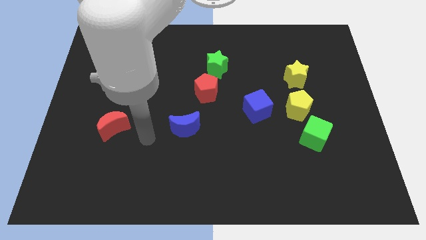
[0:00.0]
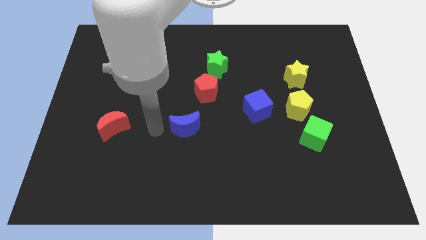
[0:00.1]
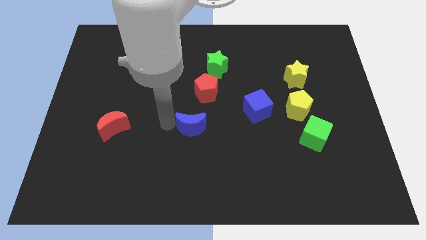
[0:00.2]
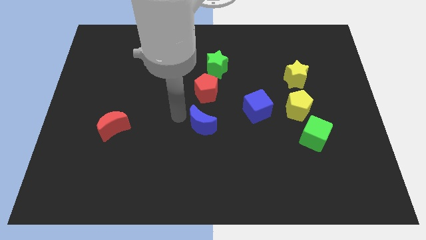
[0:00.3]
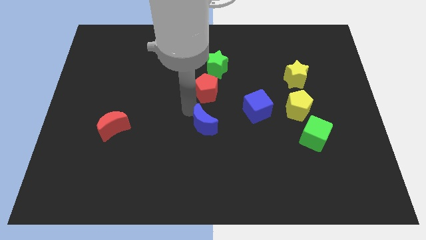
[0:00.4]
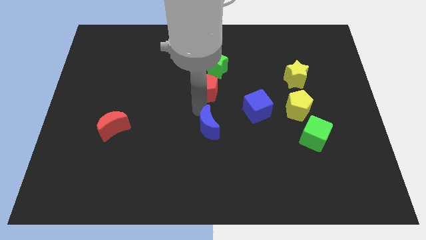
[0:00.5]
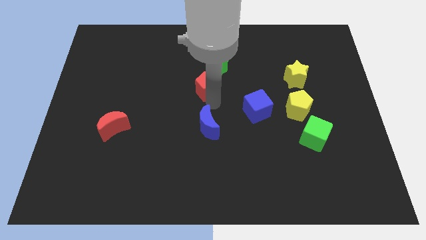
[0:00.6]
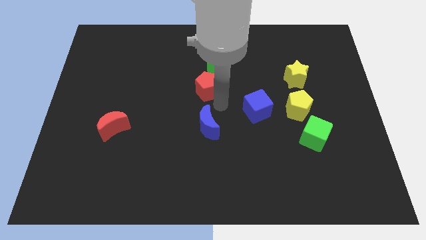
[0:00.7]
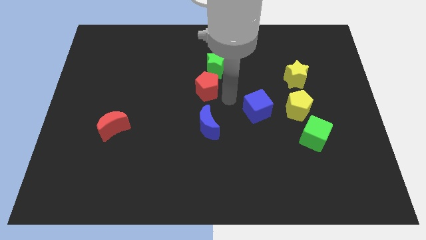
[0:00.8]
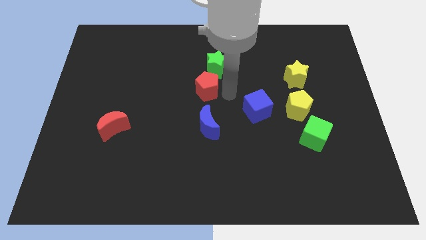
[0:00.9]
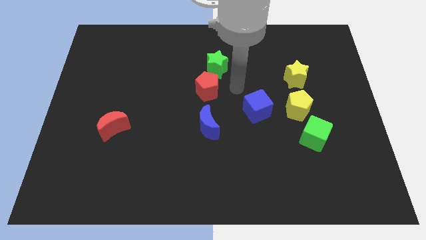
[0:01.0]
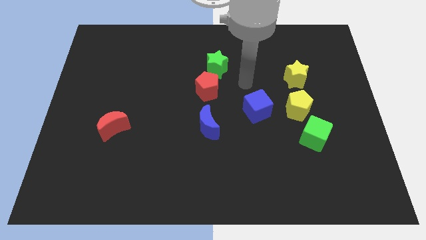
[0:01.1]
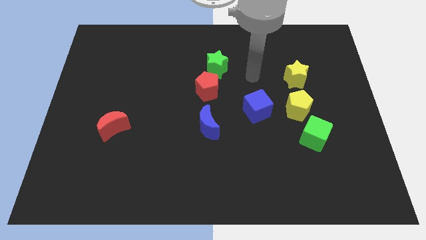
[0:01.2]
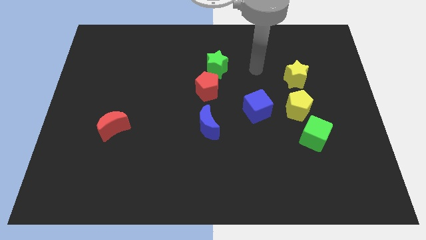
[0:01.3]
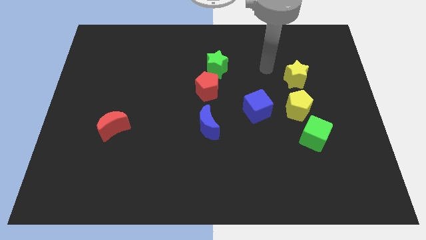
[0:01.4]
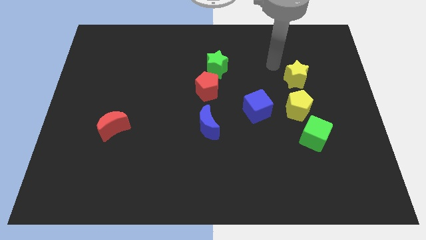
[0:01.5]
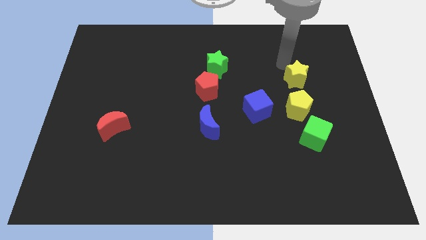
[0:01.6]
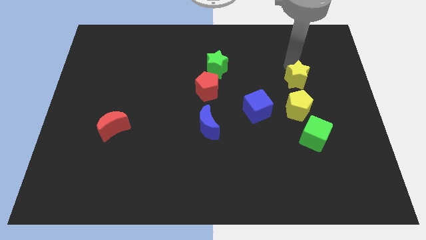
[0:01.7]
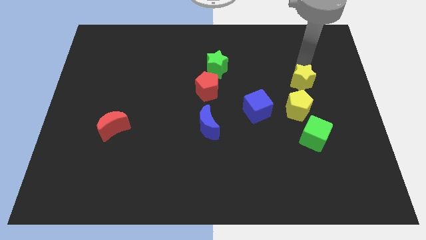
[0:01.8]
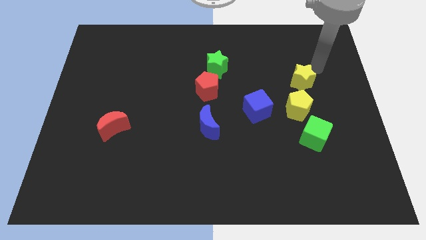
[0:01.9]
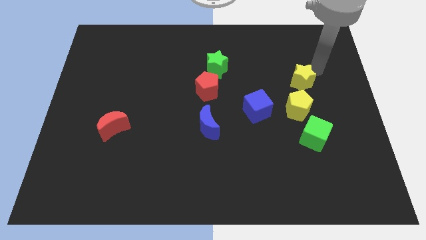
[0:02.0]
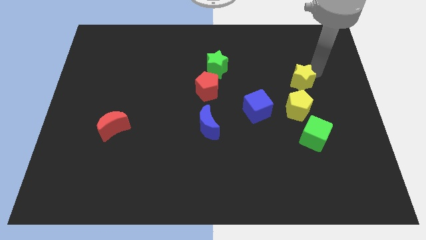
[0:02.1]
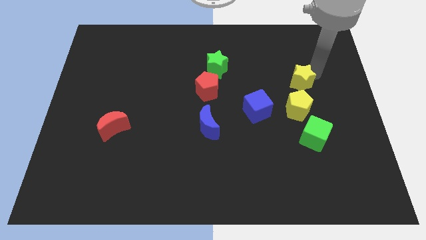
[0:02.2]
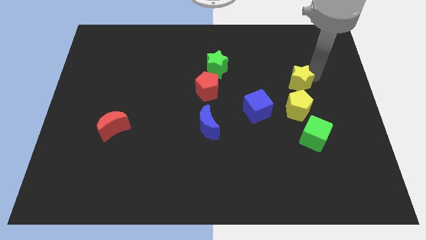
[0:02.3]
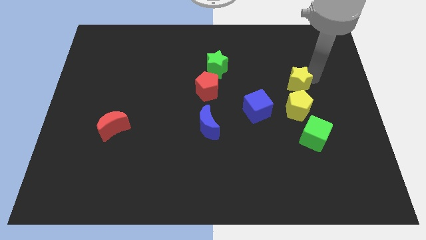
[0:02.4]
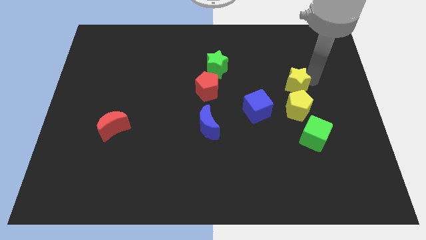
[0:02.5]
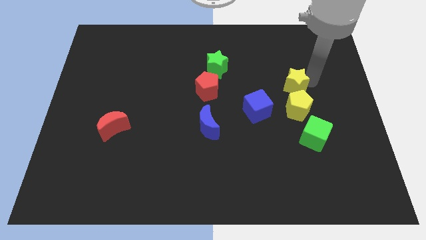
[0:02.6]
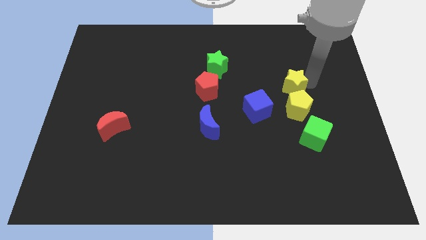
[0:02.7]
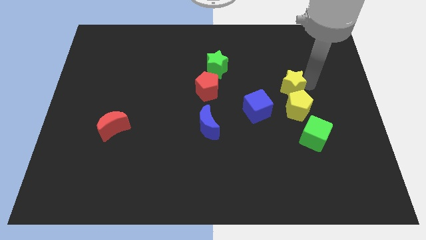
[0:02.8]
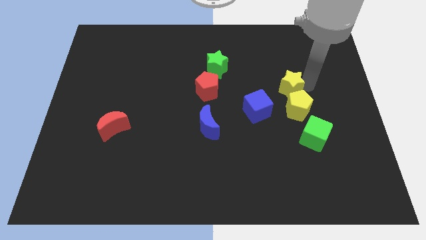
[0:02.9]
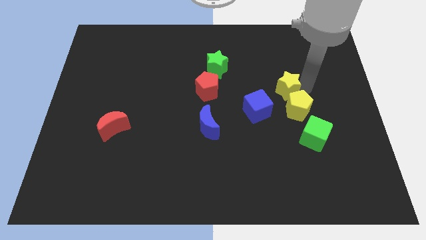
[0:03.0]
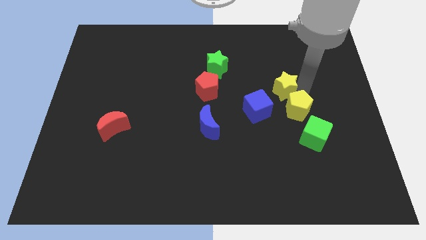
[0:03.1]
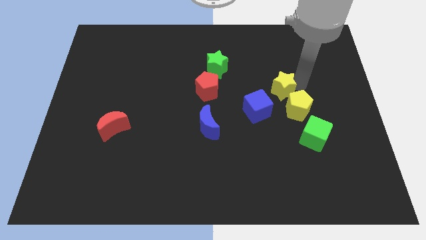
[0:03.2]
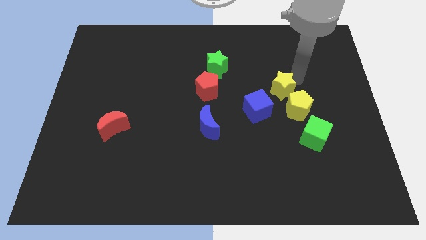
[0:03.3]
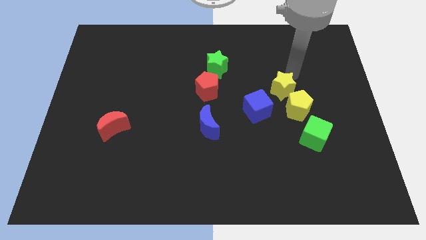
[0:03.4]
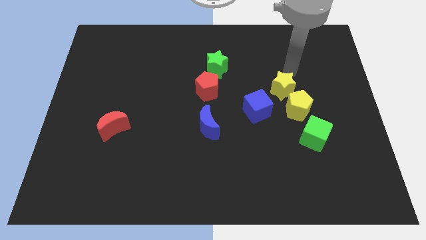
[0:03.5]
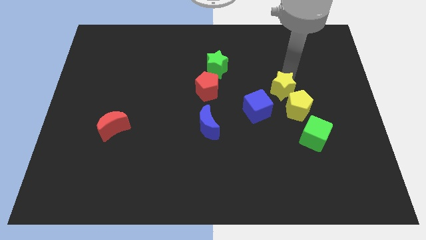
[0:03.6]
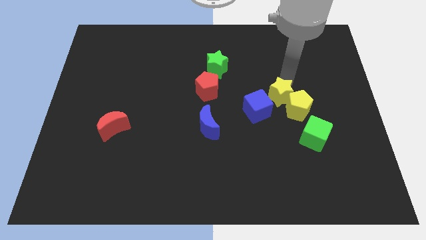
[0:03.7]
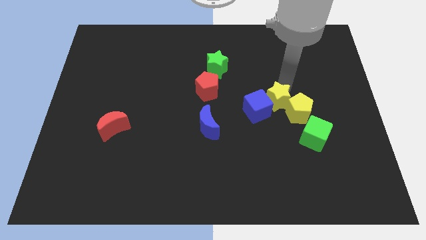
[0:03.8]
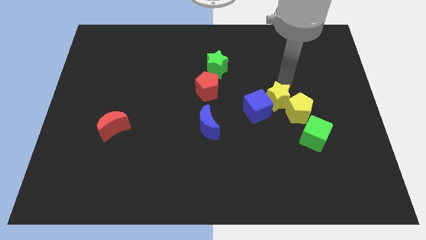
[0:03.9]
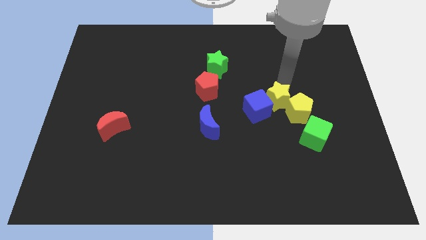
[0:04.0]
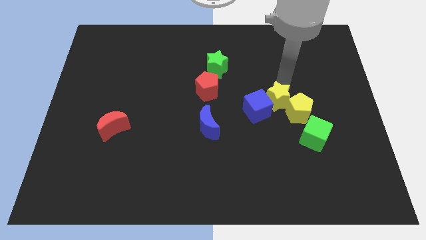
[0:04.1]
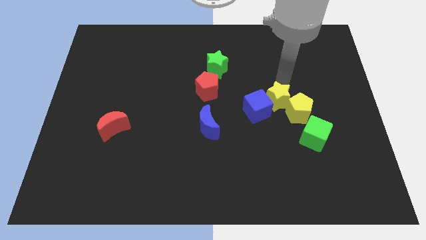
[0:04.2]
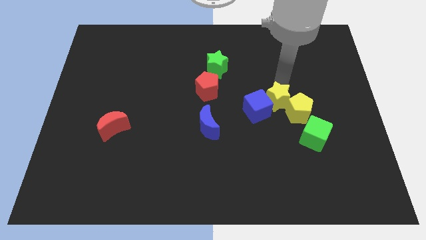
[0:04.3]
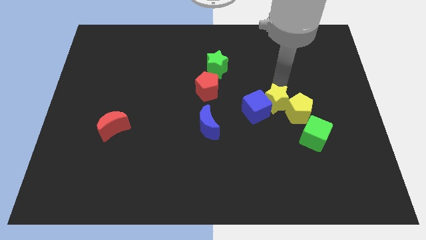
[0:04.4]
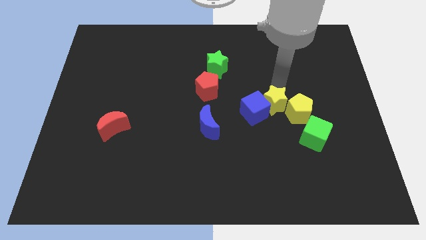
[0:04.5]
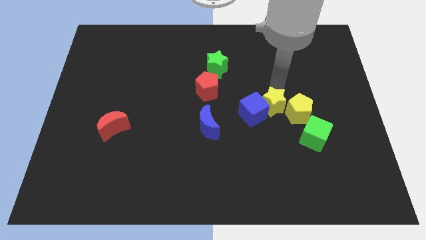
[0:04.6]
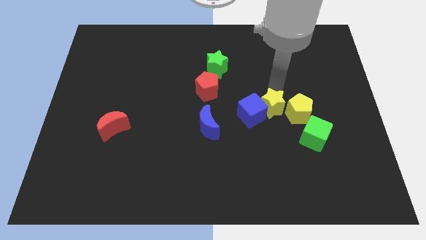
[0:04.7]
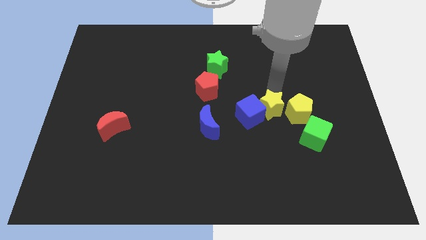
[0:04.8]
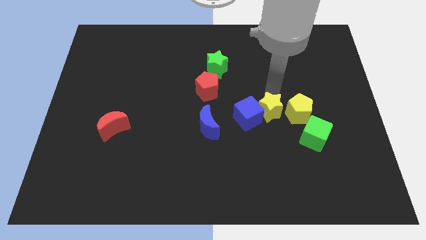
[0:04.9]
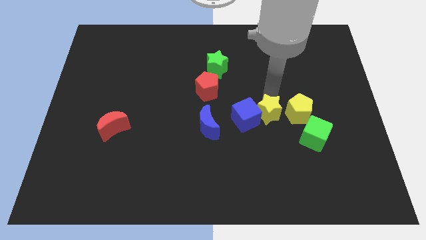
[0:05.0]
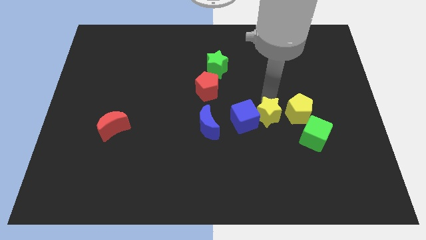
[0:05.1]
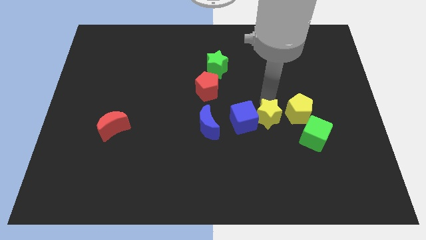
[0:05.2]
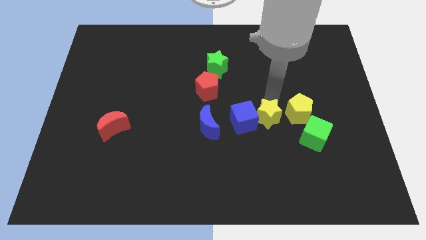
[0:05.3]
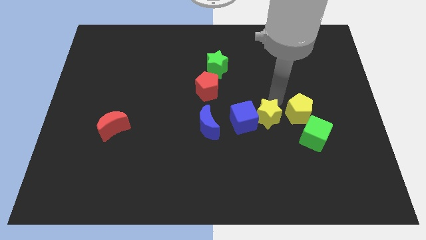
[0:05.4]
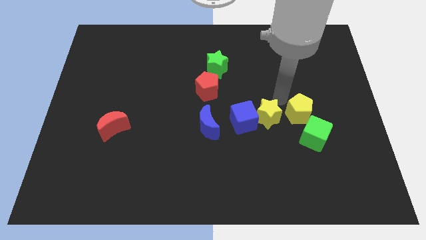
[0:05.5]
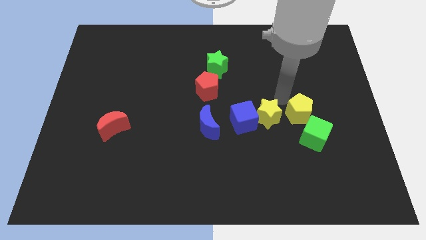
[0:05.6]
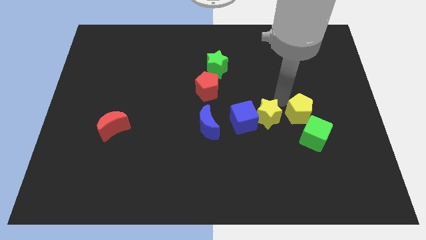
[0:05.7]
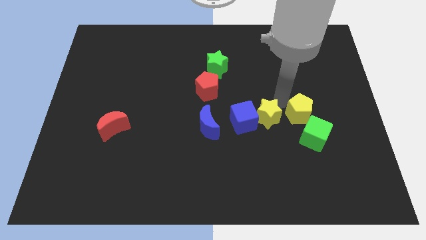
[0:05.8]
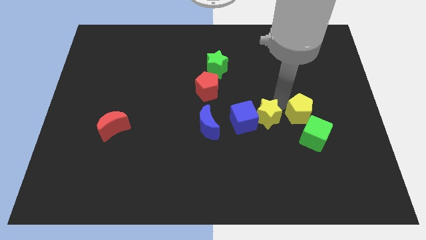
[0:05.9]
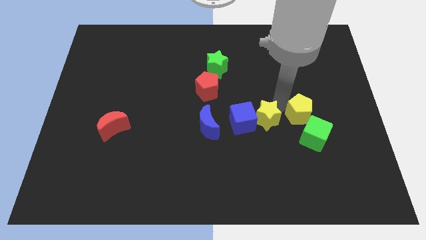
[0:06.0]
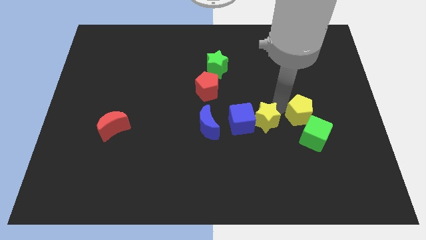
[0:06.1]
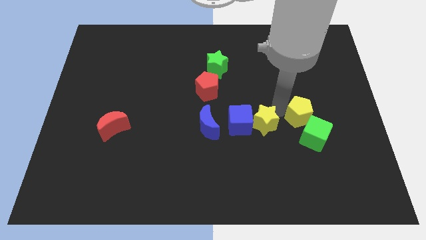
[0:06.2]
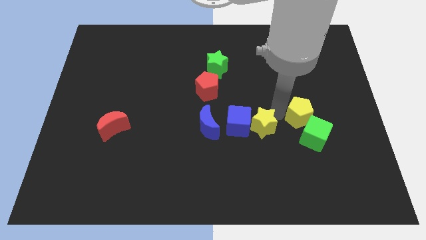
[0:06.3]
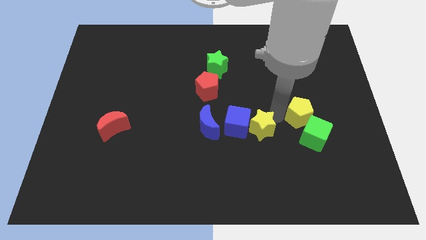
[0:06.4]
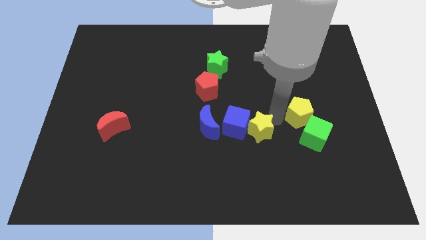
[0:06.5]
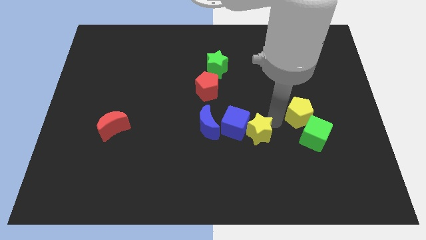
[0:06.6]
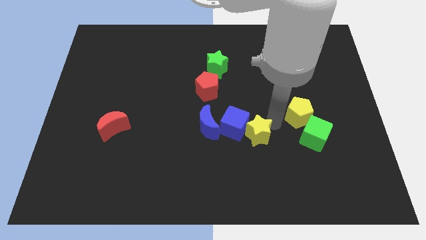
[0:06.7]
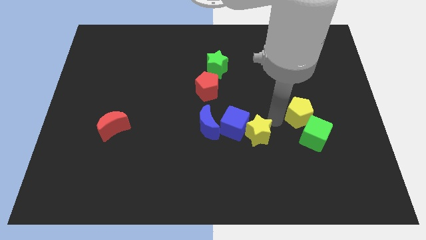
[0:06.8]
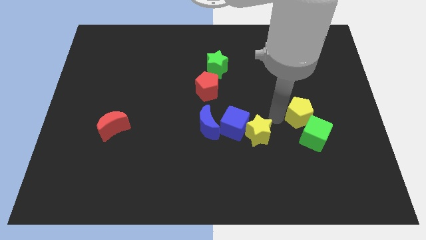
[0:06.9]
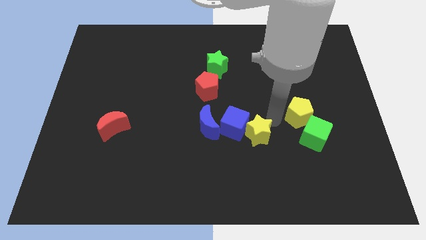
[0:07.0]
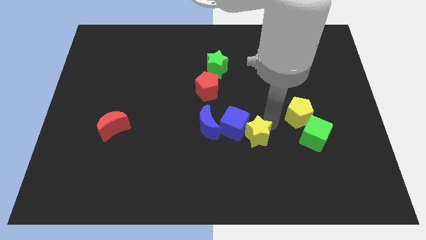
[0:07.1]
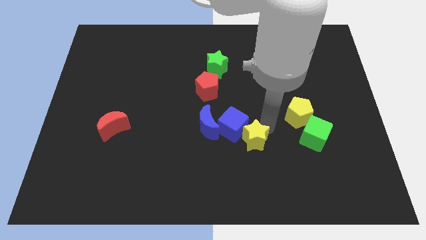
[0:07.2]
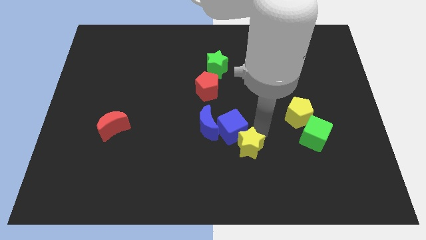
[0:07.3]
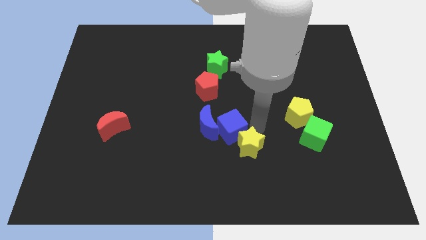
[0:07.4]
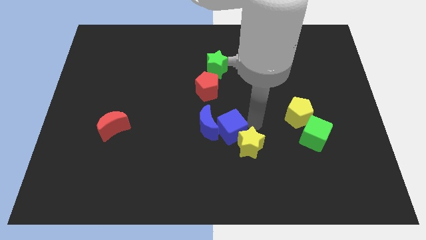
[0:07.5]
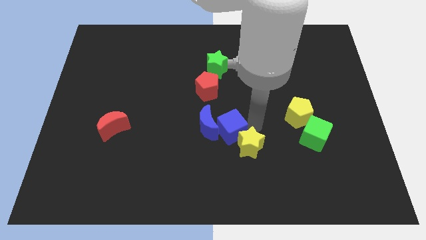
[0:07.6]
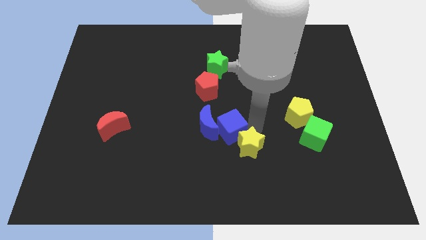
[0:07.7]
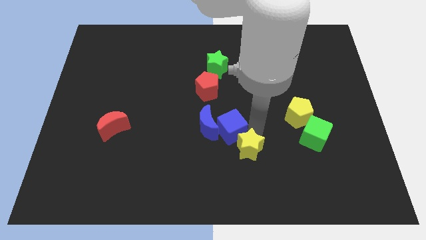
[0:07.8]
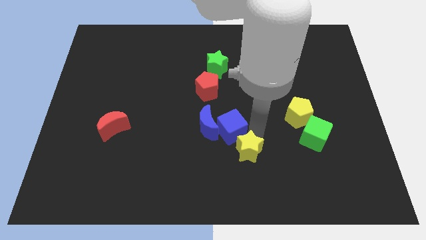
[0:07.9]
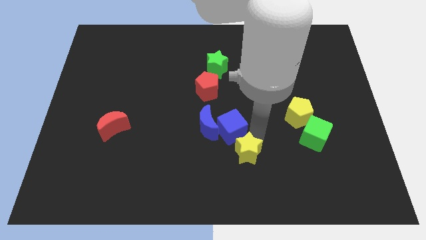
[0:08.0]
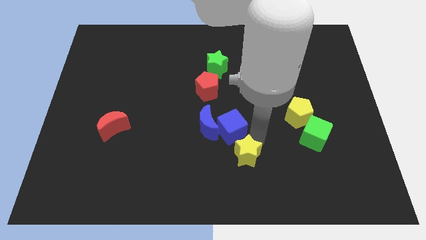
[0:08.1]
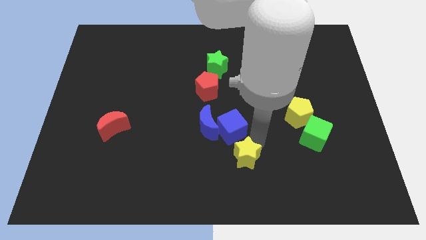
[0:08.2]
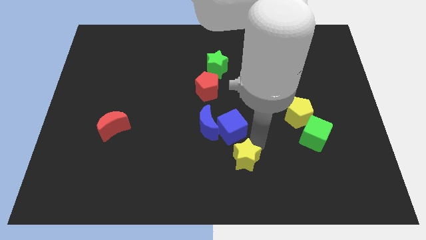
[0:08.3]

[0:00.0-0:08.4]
slide the yellow star to the bottom
